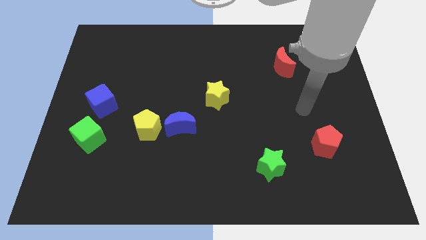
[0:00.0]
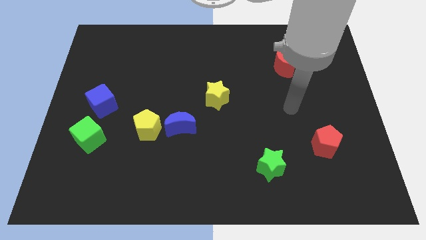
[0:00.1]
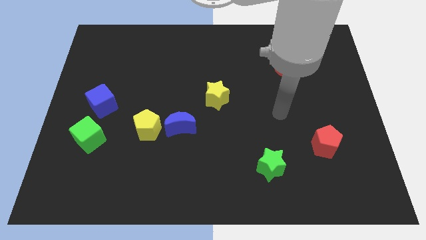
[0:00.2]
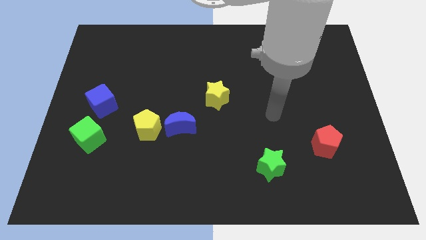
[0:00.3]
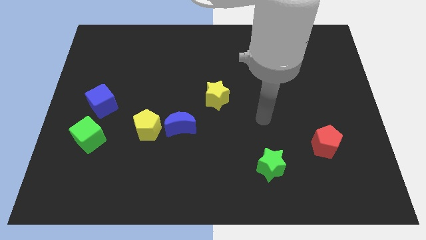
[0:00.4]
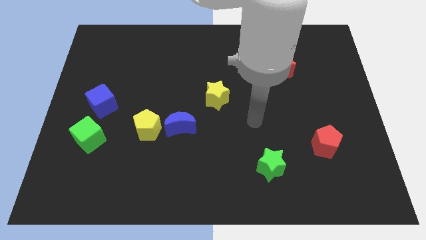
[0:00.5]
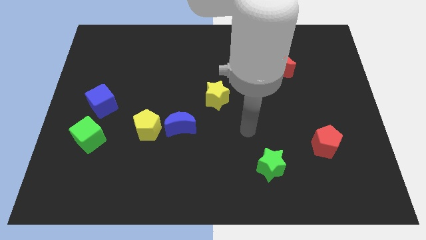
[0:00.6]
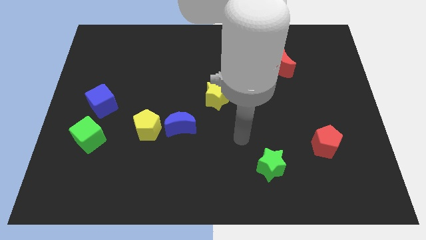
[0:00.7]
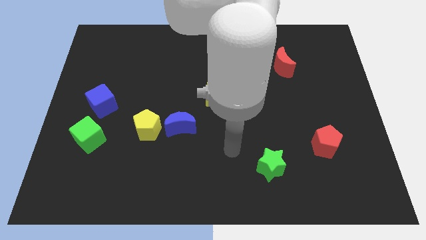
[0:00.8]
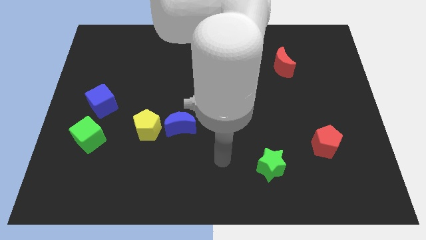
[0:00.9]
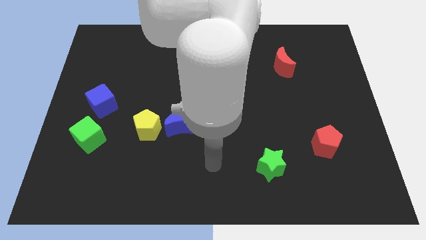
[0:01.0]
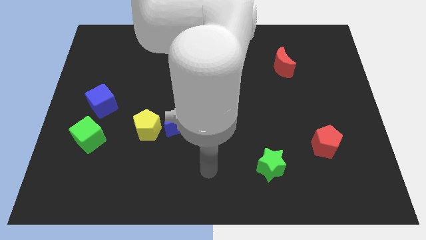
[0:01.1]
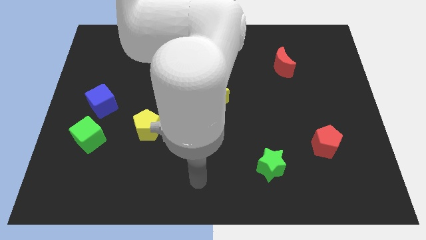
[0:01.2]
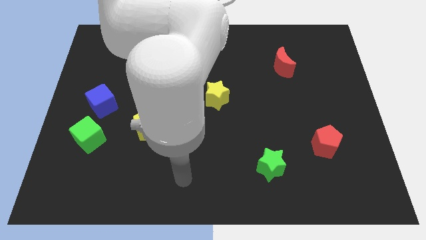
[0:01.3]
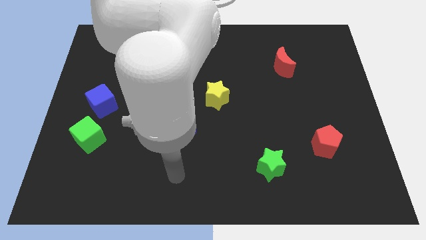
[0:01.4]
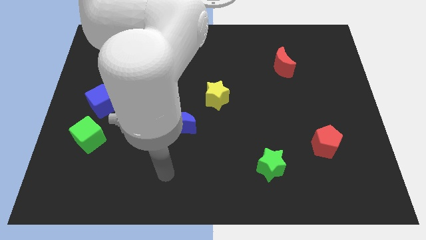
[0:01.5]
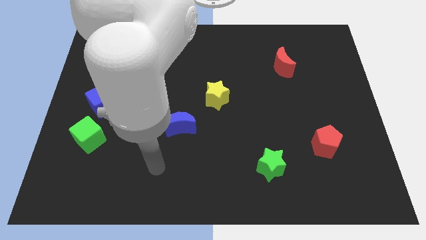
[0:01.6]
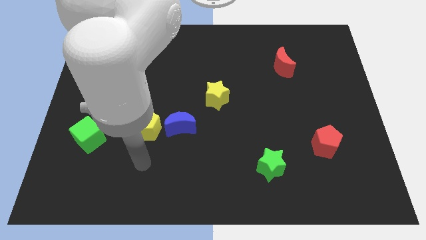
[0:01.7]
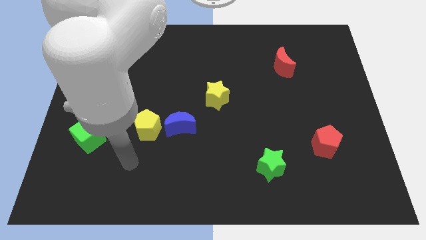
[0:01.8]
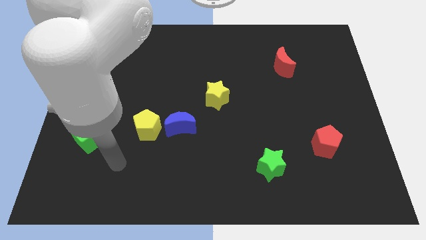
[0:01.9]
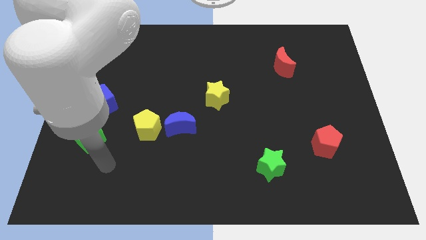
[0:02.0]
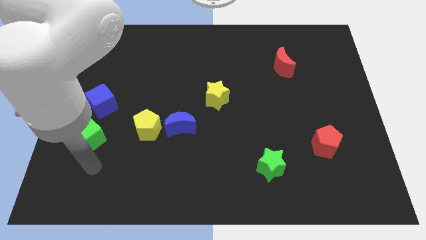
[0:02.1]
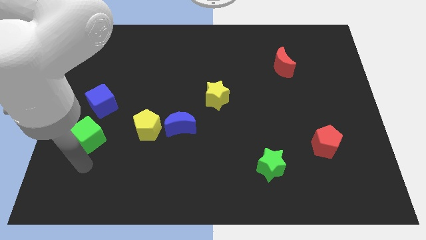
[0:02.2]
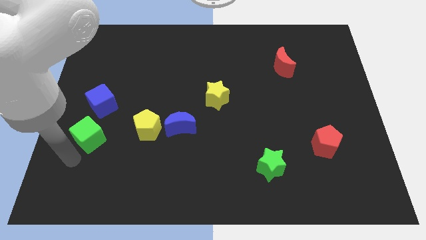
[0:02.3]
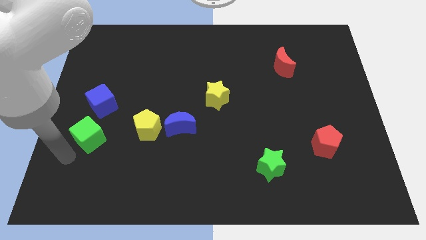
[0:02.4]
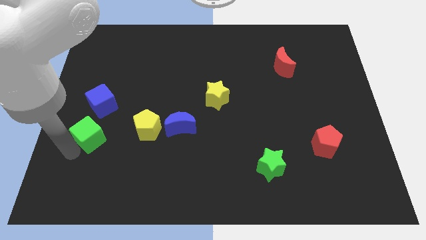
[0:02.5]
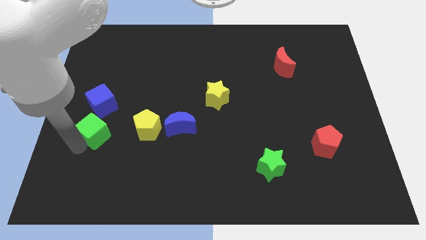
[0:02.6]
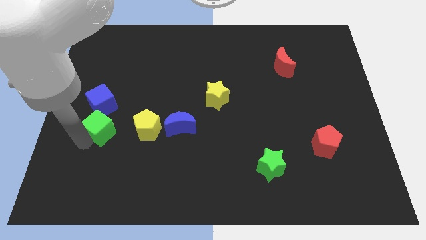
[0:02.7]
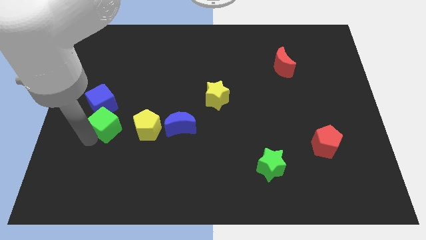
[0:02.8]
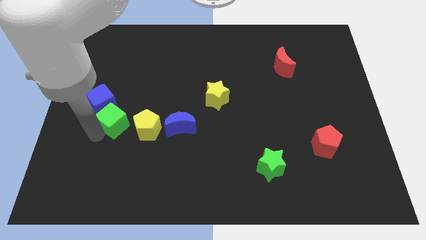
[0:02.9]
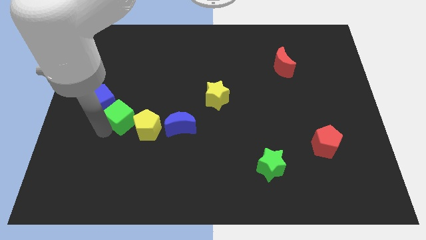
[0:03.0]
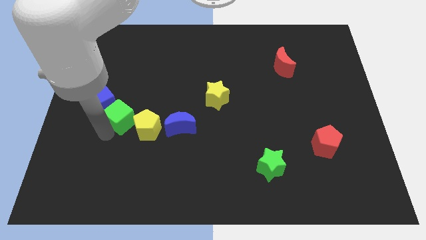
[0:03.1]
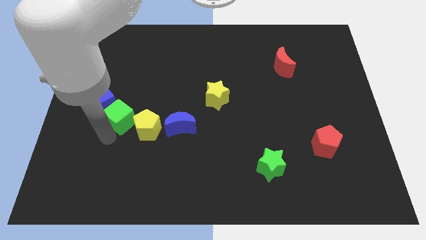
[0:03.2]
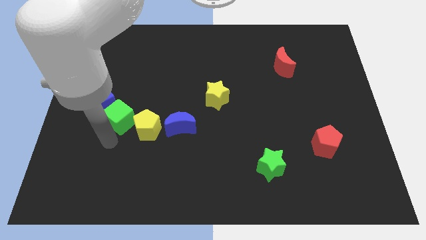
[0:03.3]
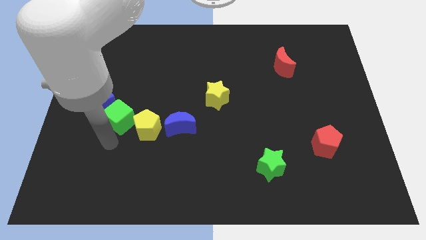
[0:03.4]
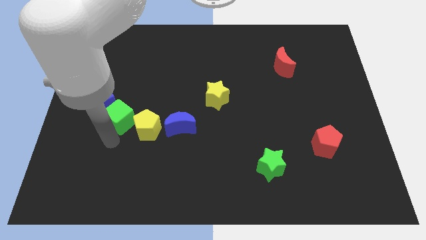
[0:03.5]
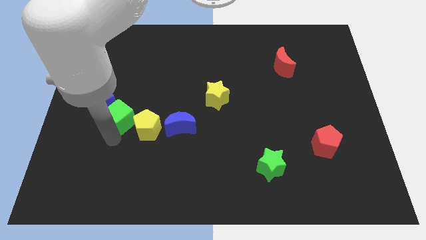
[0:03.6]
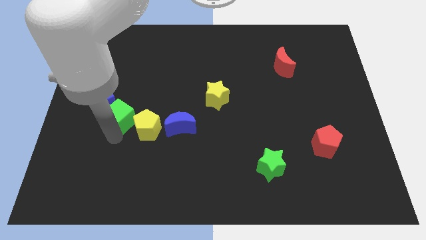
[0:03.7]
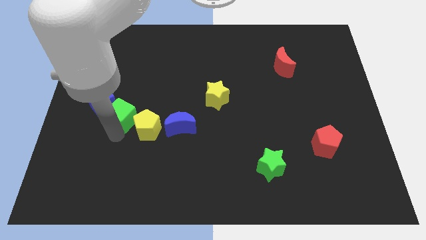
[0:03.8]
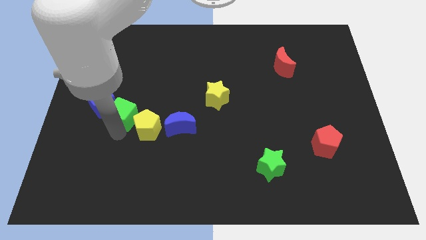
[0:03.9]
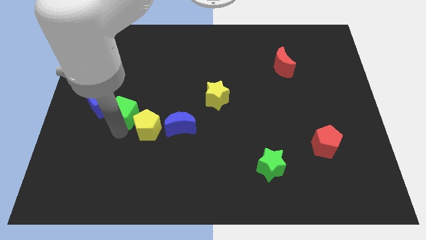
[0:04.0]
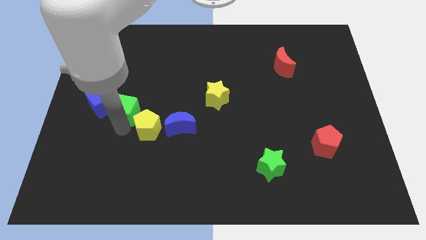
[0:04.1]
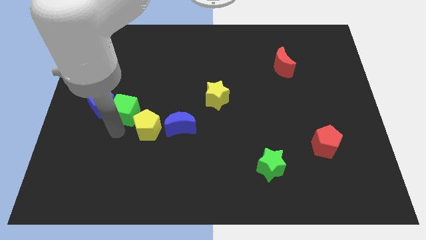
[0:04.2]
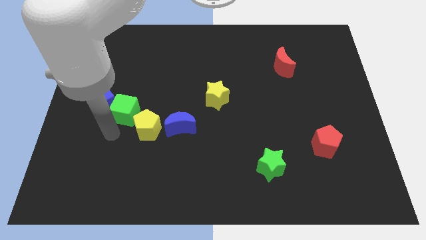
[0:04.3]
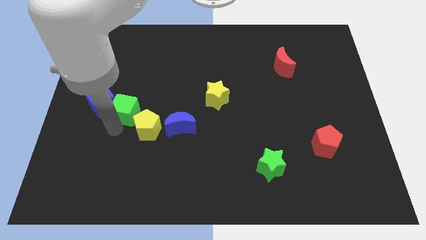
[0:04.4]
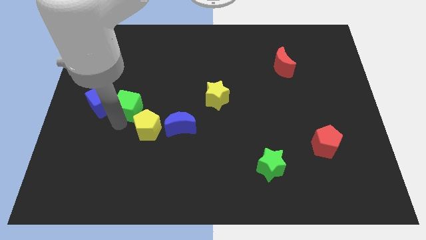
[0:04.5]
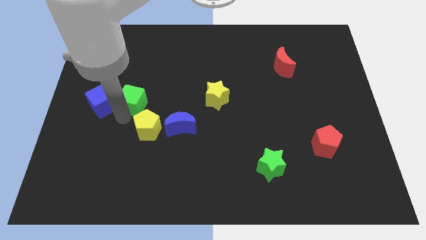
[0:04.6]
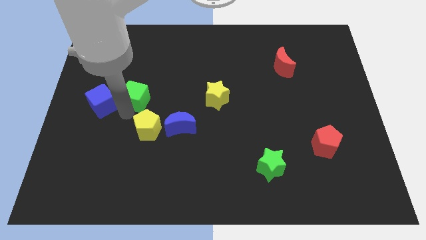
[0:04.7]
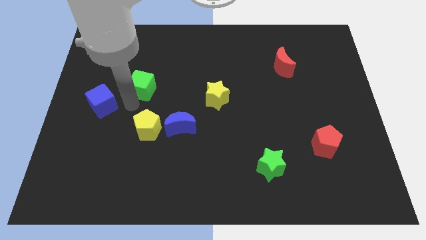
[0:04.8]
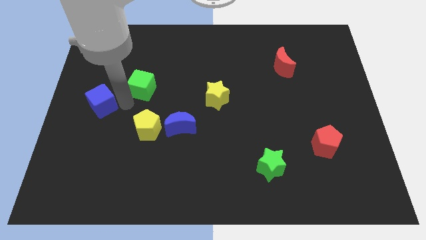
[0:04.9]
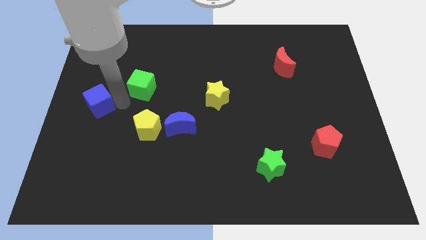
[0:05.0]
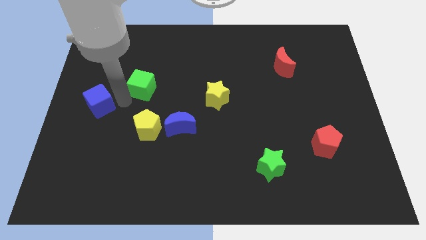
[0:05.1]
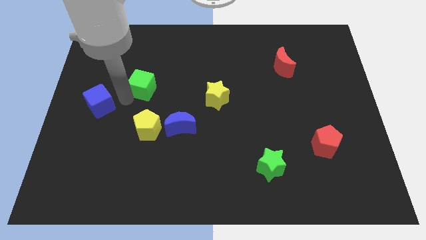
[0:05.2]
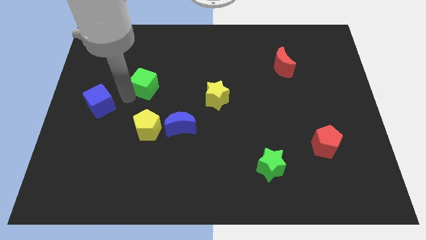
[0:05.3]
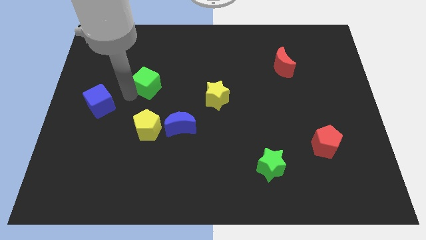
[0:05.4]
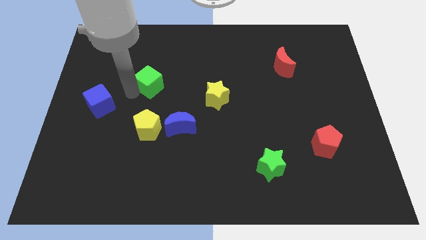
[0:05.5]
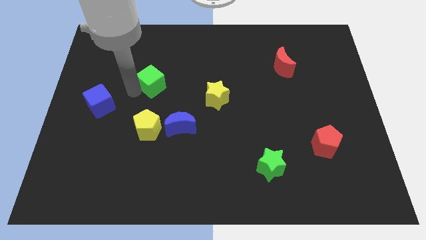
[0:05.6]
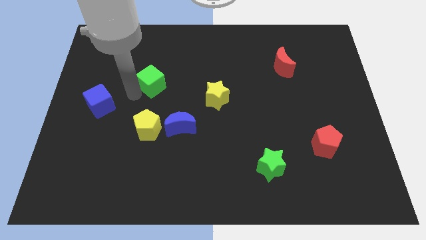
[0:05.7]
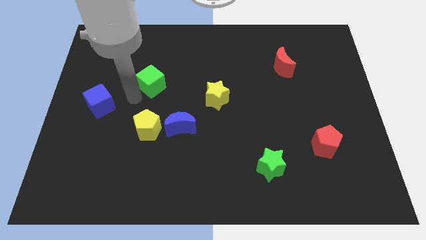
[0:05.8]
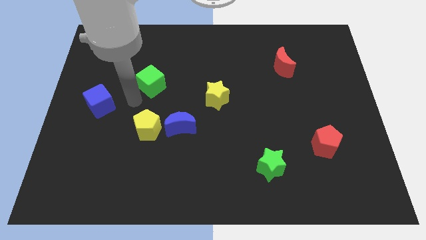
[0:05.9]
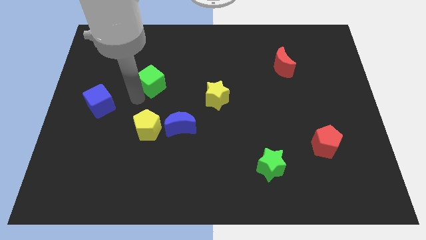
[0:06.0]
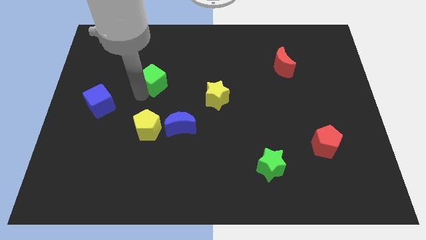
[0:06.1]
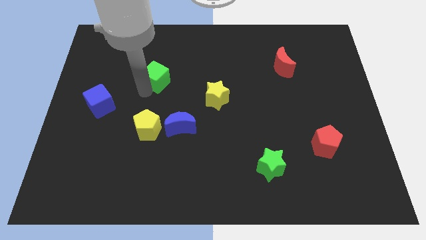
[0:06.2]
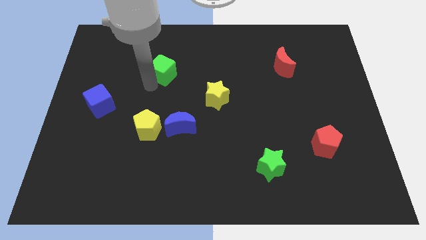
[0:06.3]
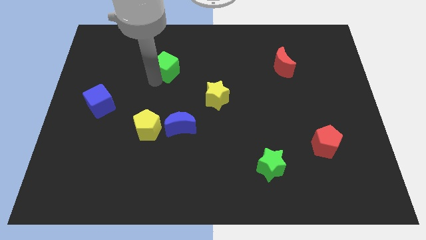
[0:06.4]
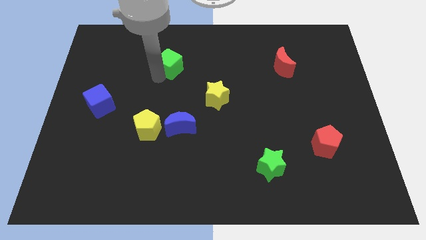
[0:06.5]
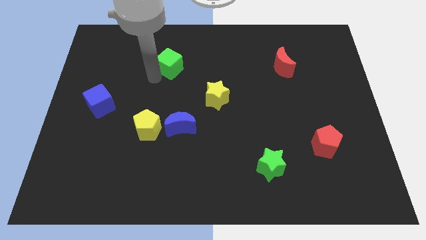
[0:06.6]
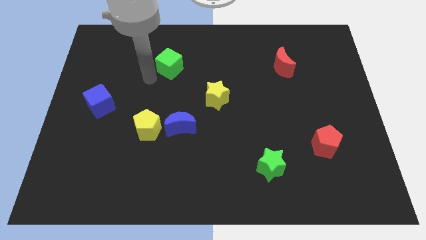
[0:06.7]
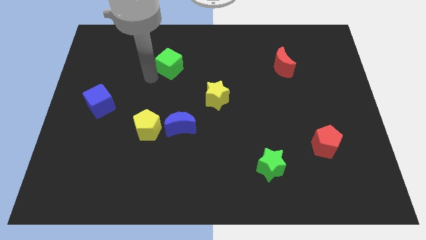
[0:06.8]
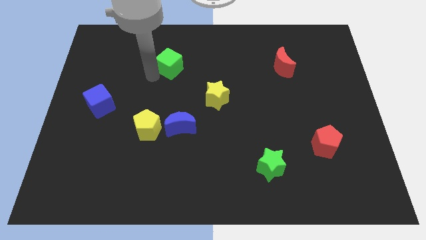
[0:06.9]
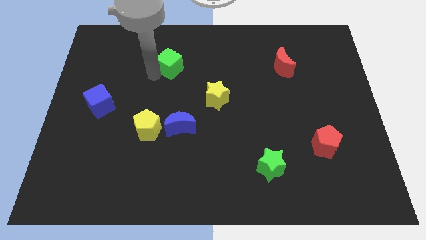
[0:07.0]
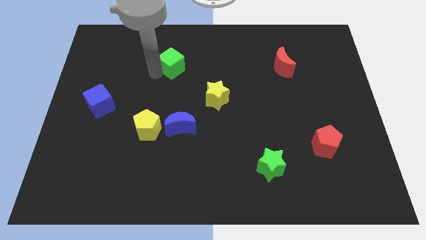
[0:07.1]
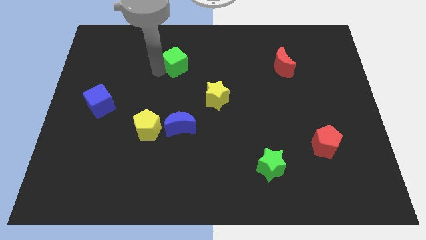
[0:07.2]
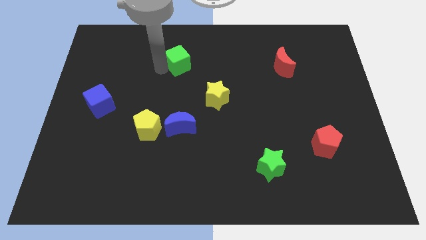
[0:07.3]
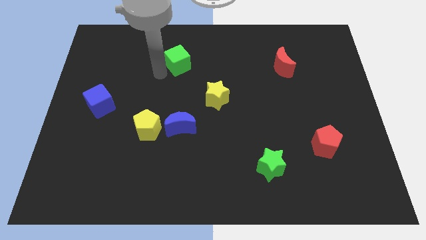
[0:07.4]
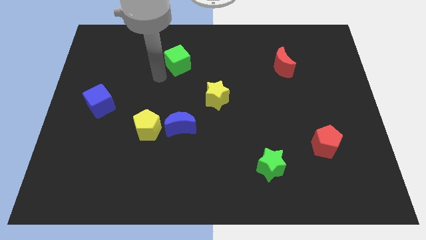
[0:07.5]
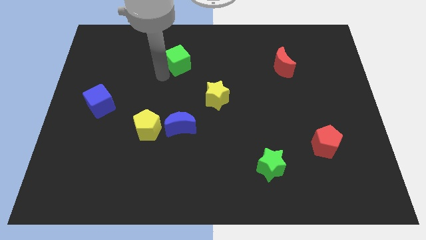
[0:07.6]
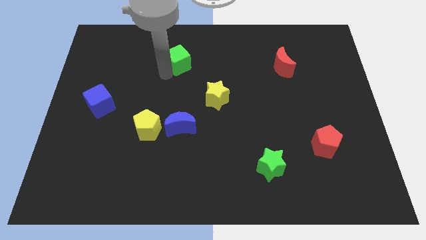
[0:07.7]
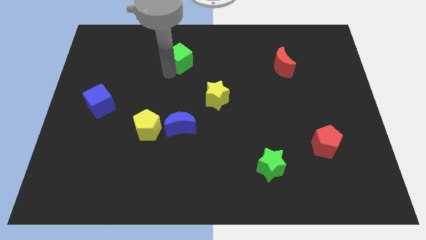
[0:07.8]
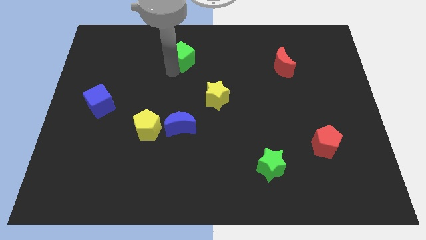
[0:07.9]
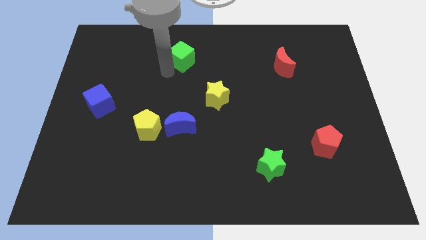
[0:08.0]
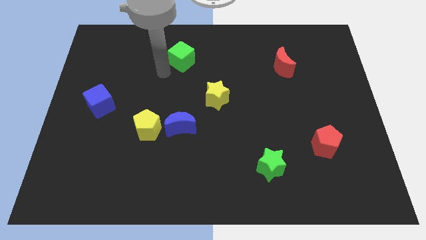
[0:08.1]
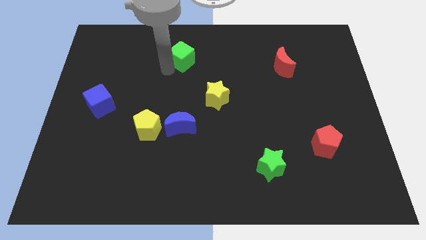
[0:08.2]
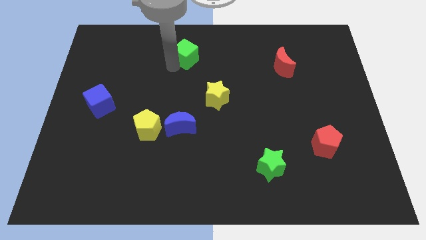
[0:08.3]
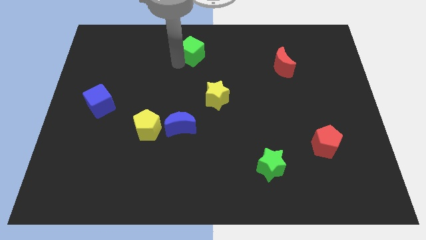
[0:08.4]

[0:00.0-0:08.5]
move the green cube to the top side
